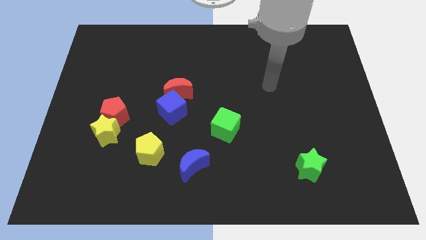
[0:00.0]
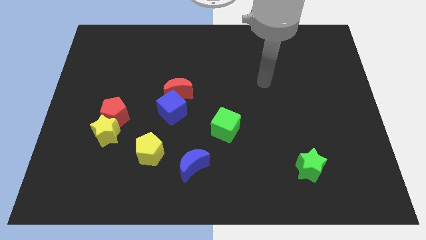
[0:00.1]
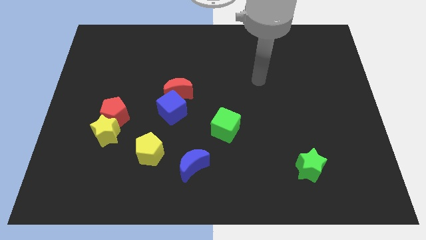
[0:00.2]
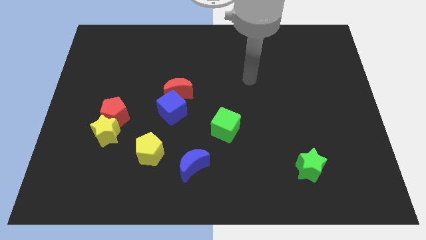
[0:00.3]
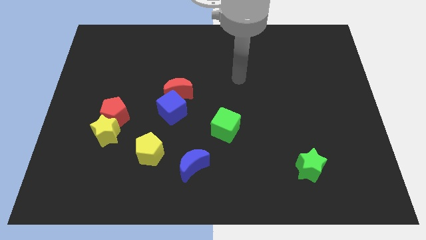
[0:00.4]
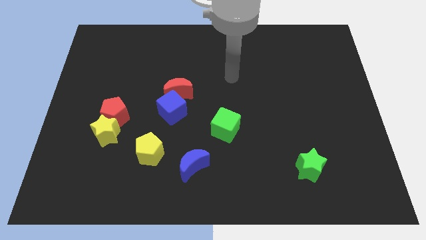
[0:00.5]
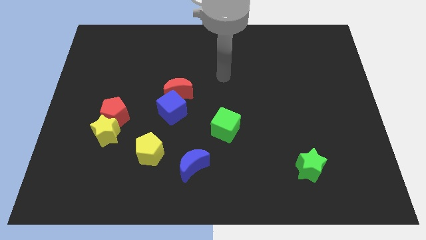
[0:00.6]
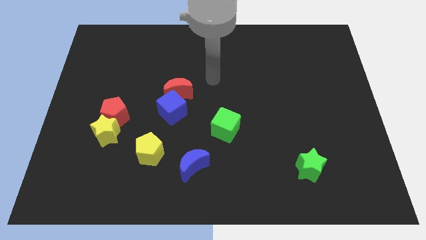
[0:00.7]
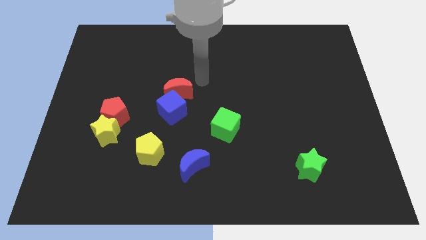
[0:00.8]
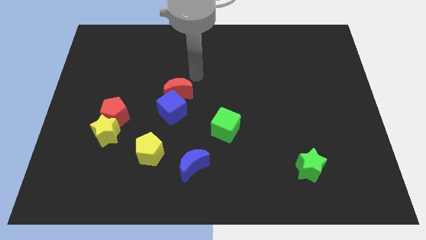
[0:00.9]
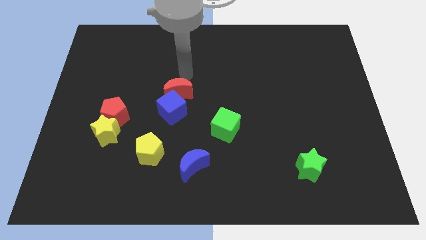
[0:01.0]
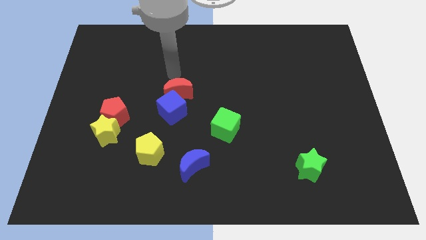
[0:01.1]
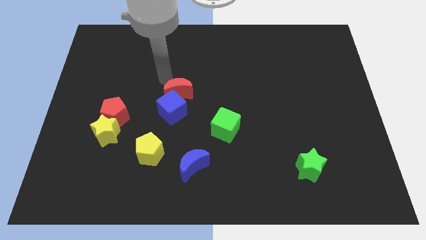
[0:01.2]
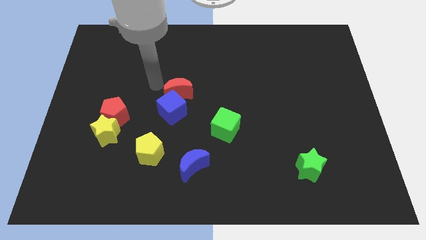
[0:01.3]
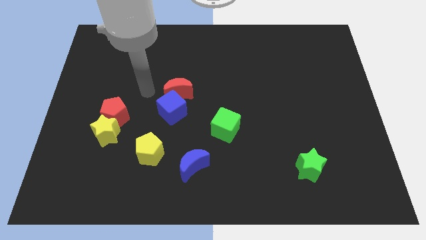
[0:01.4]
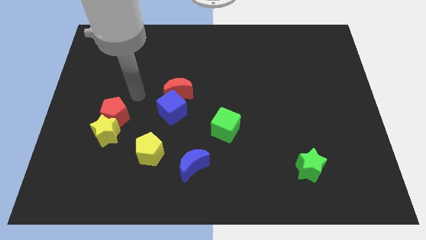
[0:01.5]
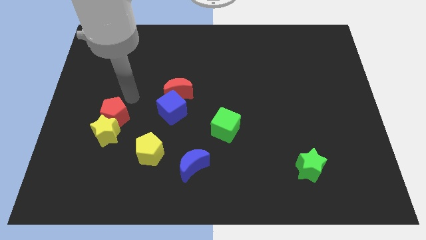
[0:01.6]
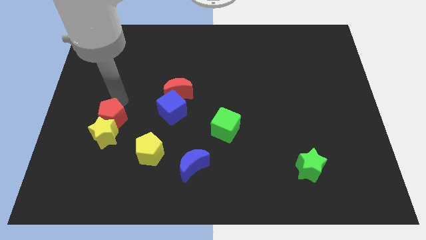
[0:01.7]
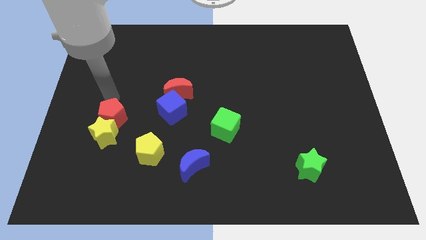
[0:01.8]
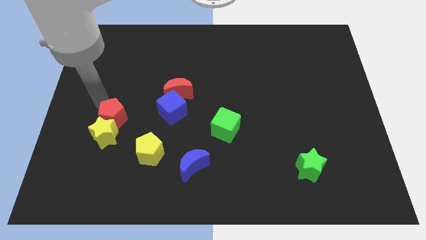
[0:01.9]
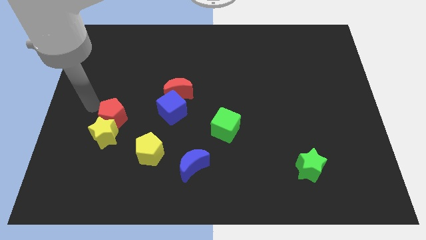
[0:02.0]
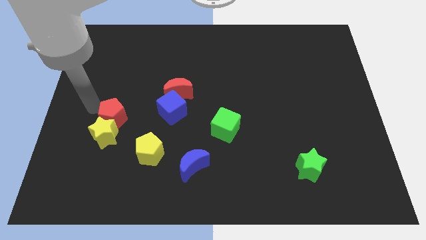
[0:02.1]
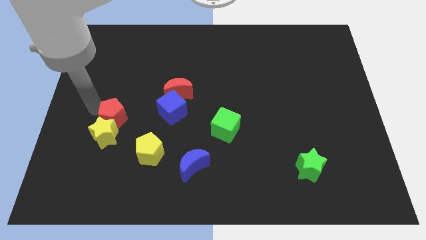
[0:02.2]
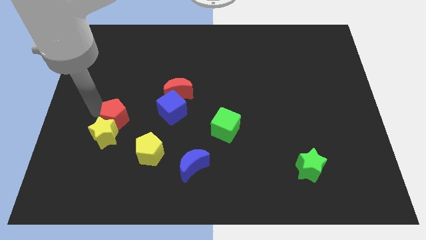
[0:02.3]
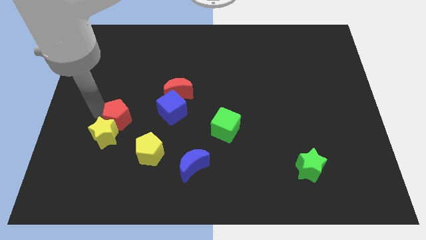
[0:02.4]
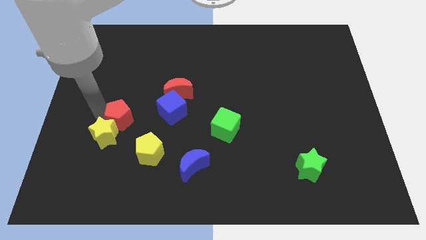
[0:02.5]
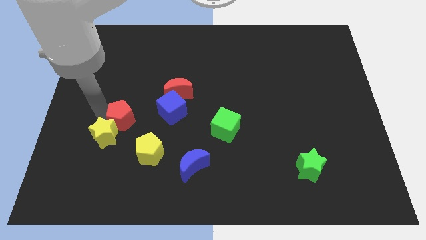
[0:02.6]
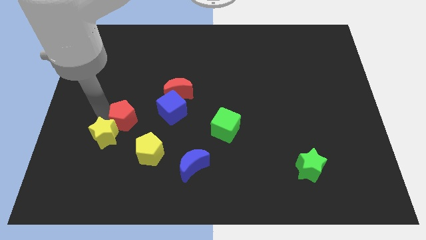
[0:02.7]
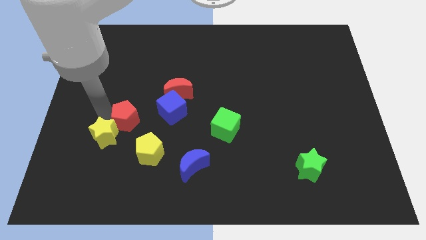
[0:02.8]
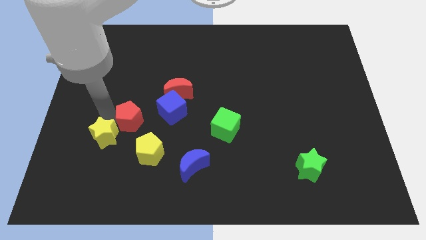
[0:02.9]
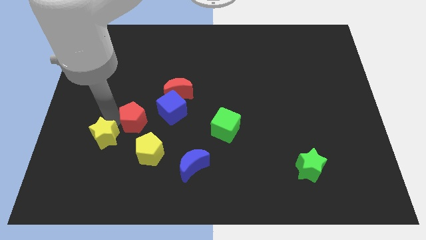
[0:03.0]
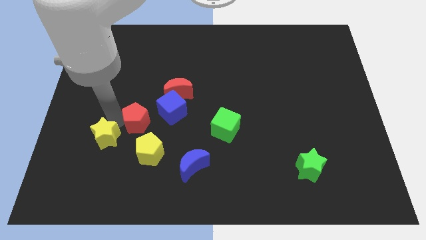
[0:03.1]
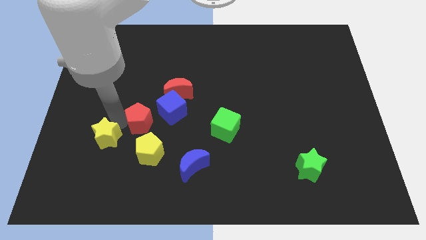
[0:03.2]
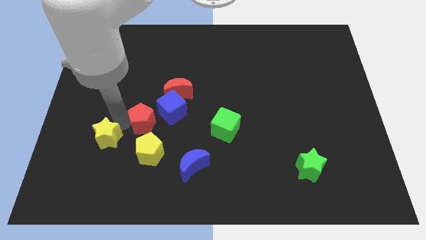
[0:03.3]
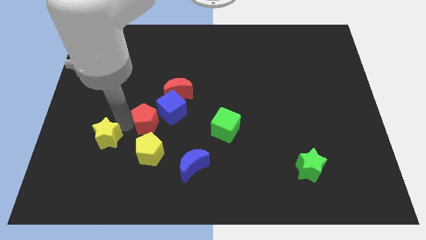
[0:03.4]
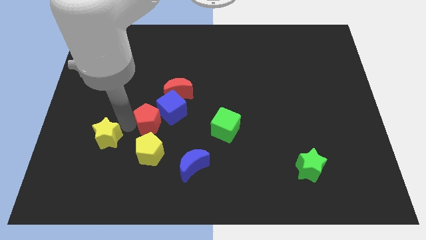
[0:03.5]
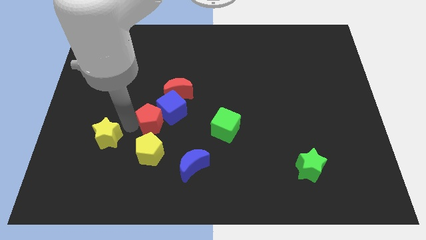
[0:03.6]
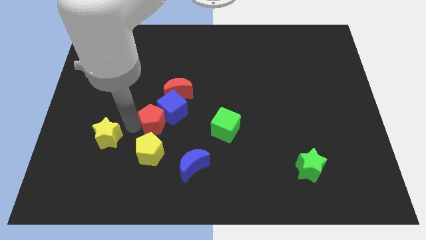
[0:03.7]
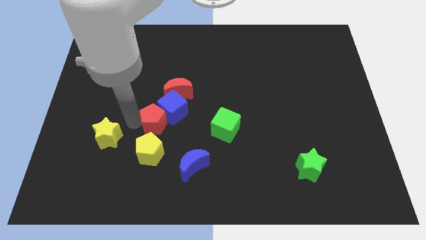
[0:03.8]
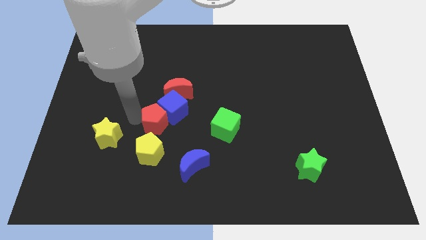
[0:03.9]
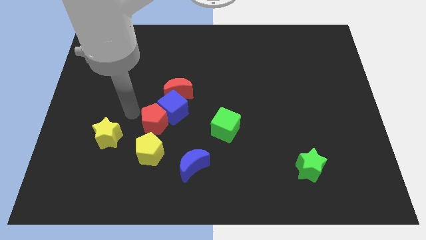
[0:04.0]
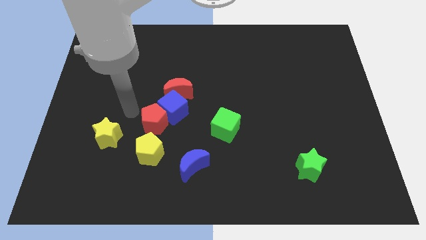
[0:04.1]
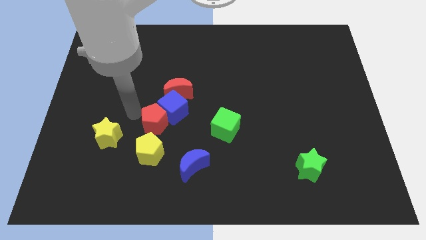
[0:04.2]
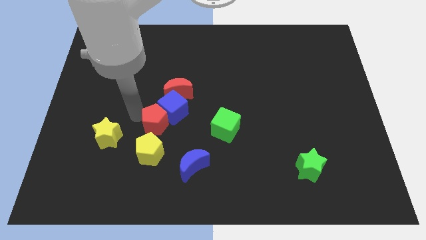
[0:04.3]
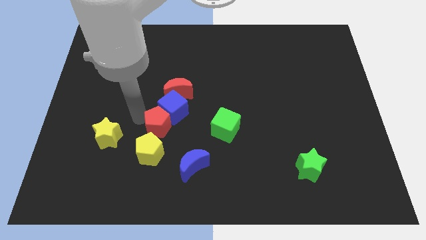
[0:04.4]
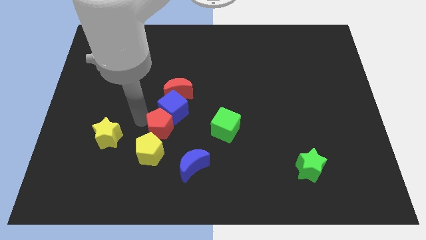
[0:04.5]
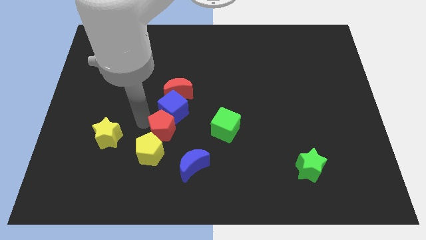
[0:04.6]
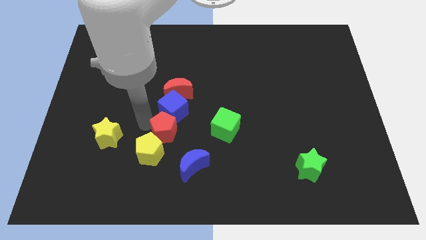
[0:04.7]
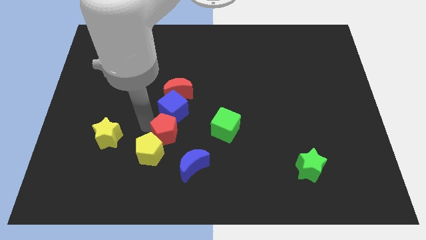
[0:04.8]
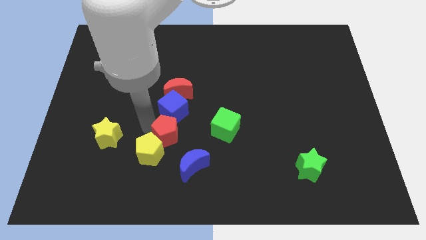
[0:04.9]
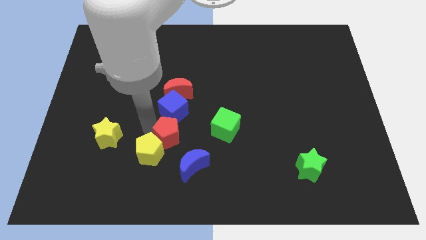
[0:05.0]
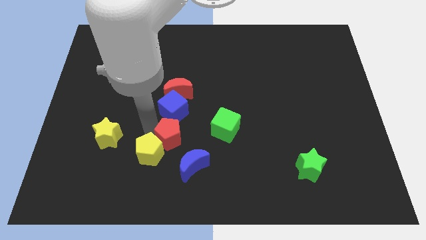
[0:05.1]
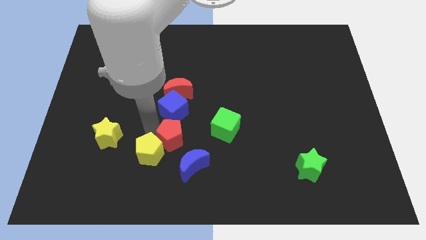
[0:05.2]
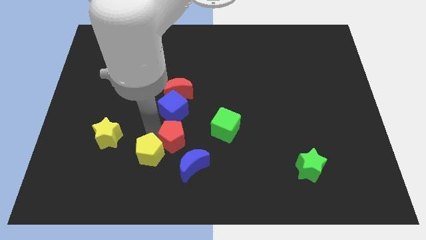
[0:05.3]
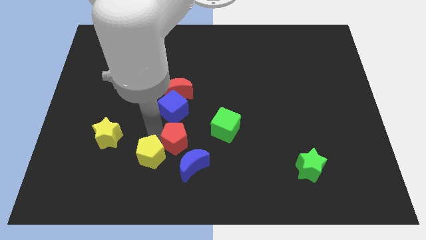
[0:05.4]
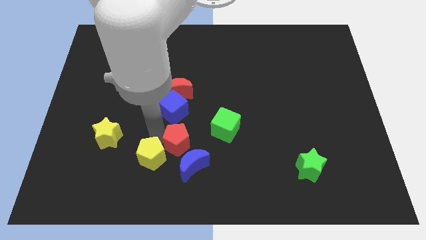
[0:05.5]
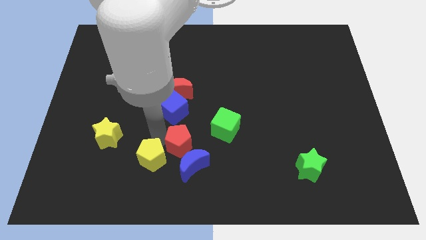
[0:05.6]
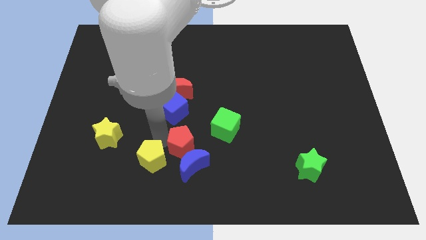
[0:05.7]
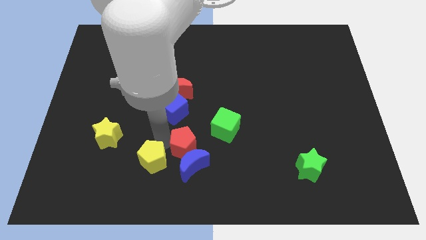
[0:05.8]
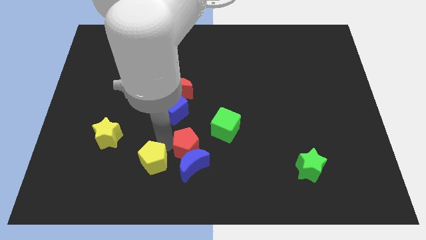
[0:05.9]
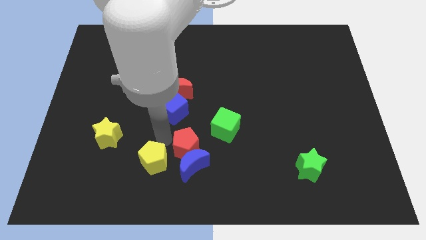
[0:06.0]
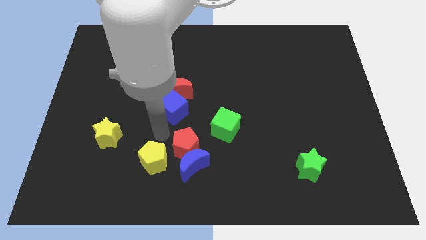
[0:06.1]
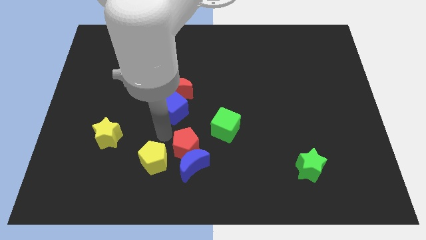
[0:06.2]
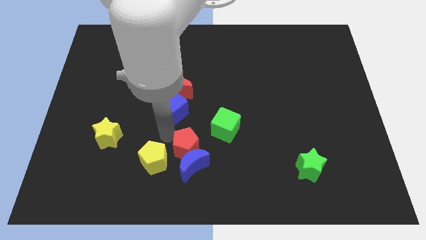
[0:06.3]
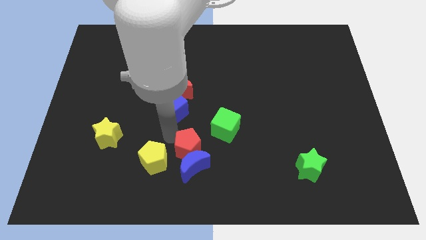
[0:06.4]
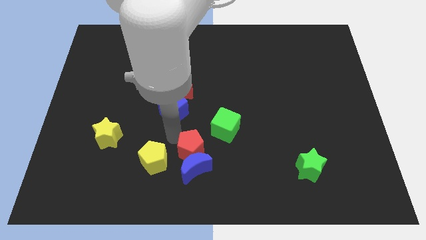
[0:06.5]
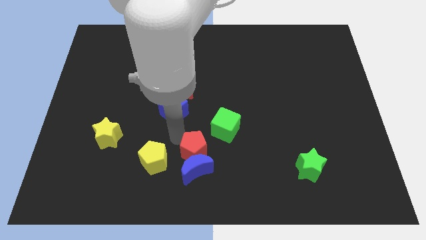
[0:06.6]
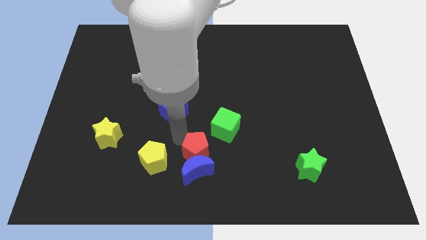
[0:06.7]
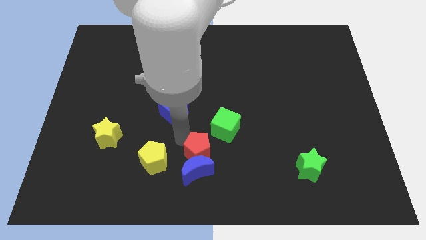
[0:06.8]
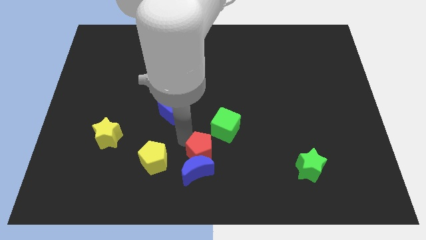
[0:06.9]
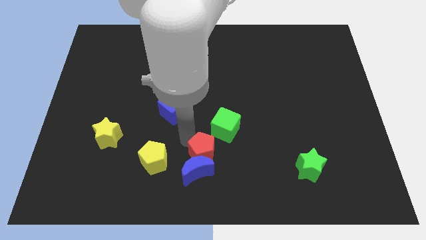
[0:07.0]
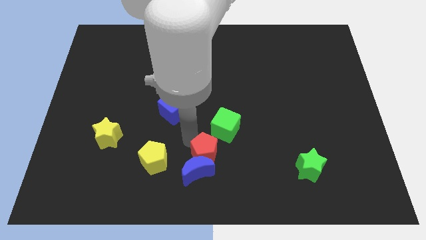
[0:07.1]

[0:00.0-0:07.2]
move the red pentagon to the bottom of the green cube
